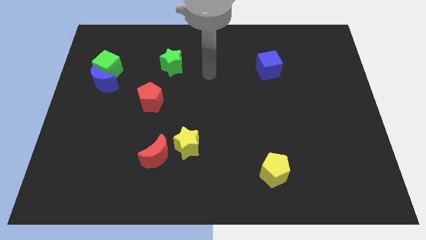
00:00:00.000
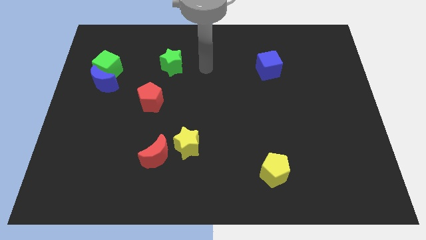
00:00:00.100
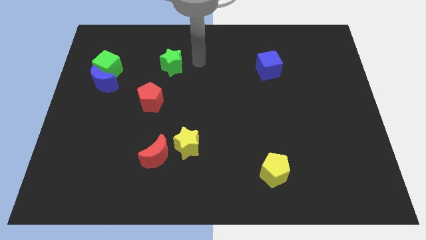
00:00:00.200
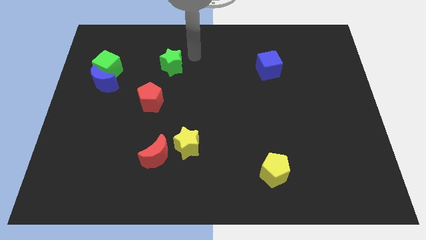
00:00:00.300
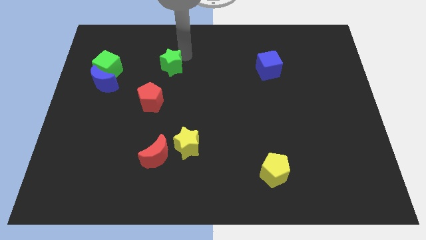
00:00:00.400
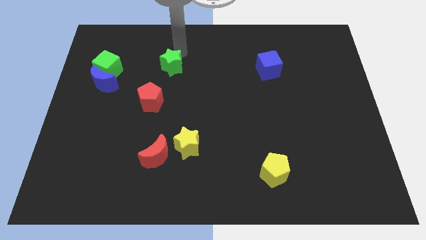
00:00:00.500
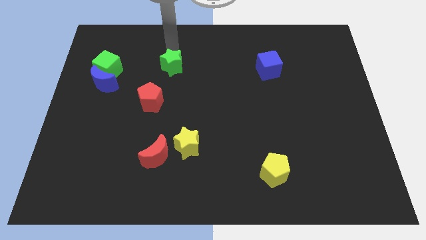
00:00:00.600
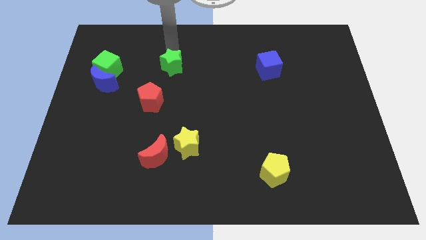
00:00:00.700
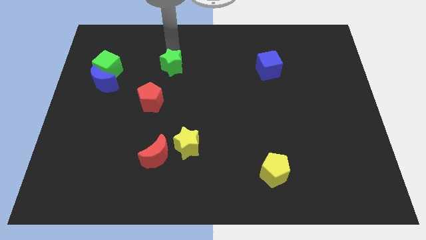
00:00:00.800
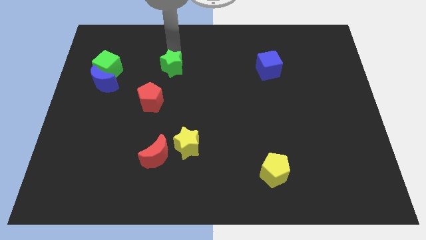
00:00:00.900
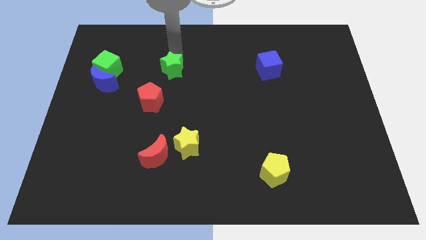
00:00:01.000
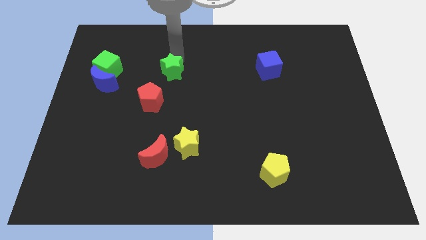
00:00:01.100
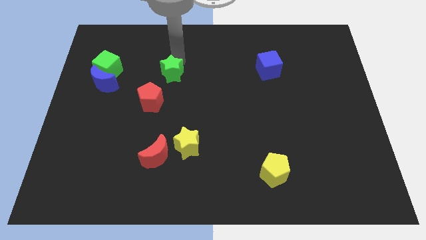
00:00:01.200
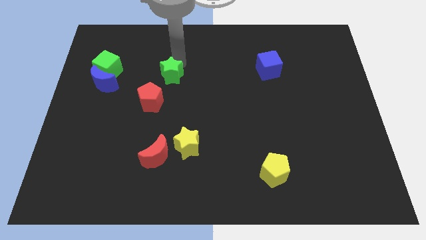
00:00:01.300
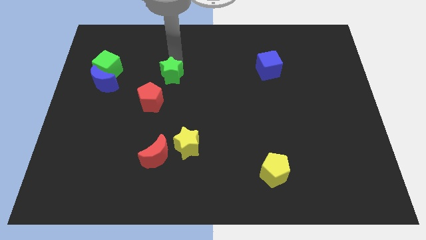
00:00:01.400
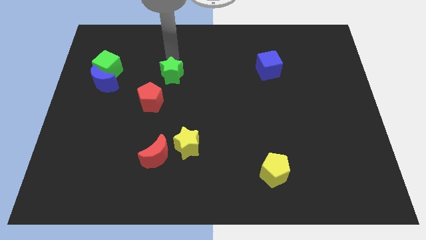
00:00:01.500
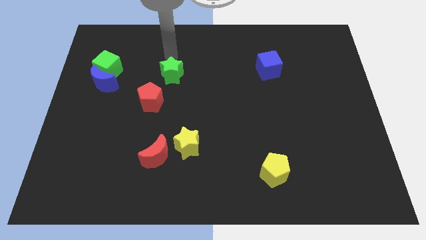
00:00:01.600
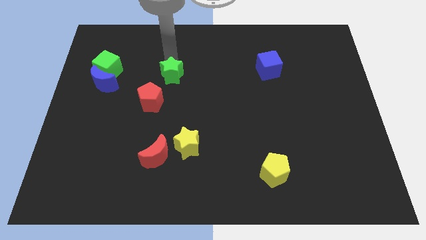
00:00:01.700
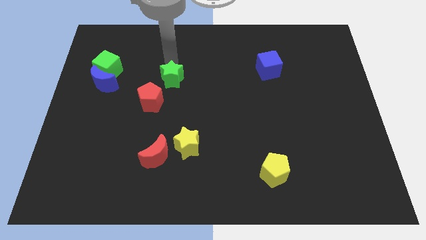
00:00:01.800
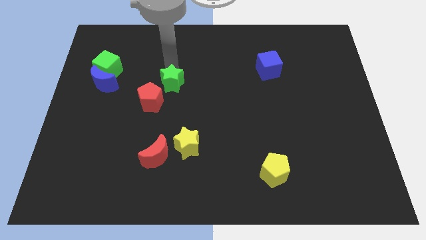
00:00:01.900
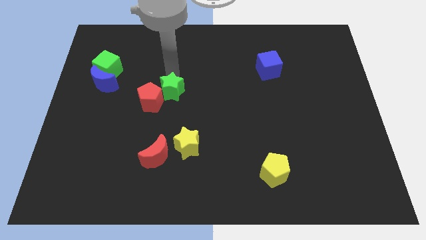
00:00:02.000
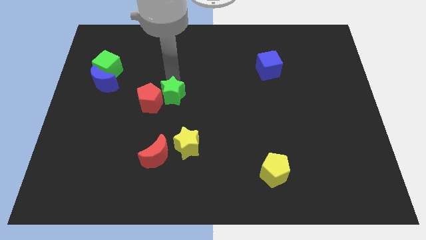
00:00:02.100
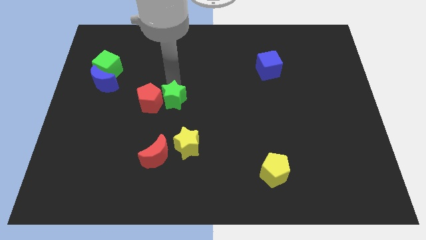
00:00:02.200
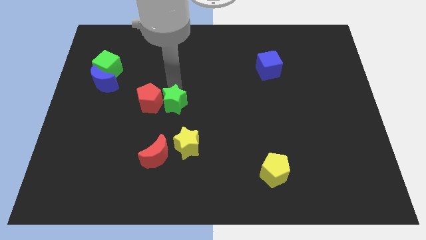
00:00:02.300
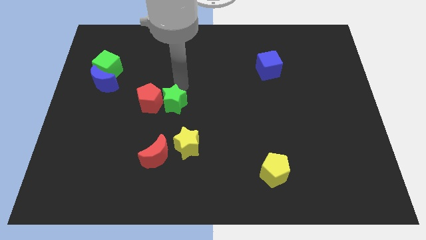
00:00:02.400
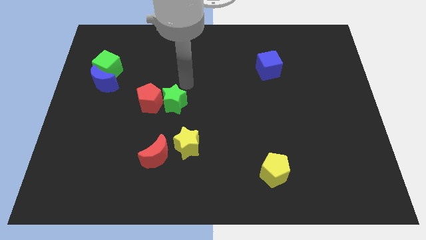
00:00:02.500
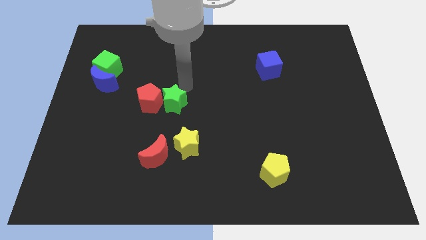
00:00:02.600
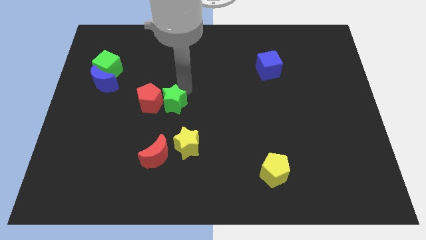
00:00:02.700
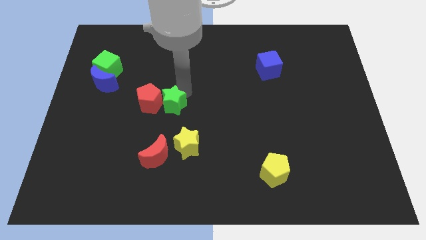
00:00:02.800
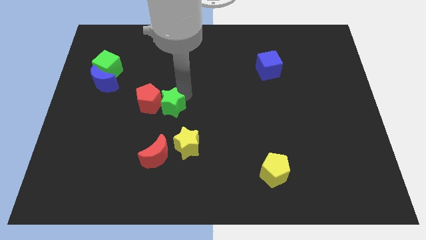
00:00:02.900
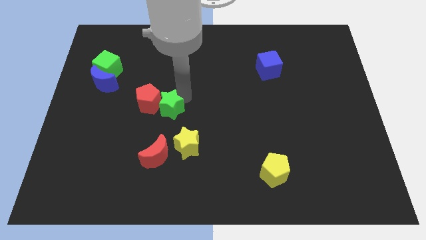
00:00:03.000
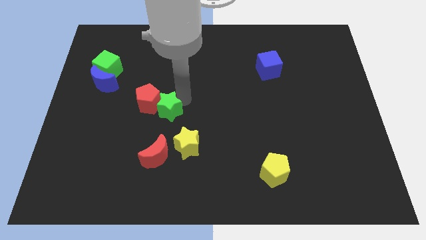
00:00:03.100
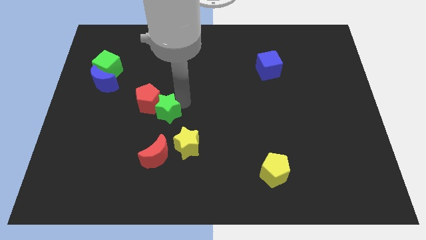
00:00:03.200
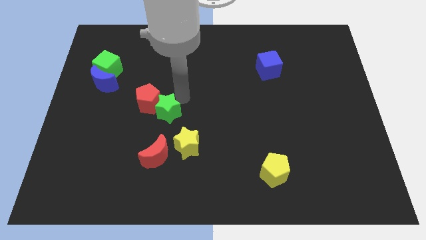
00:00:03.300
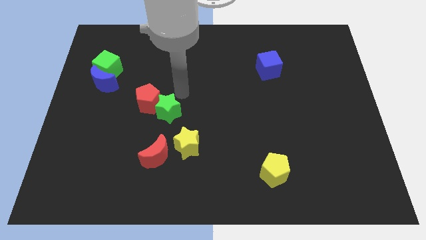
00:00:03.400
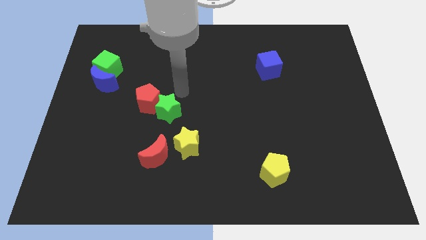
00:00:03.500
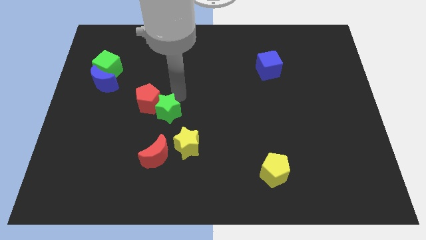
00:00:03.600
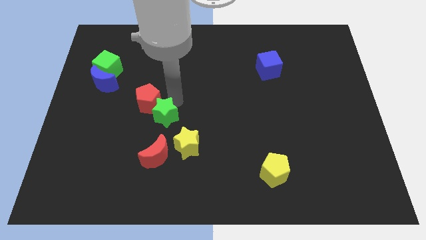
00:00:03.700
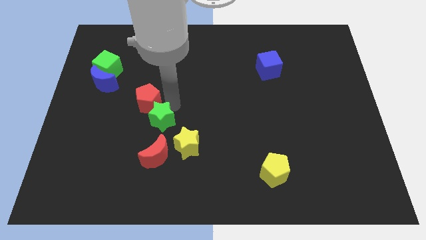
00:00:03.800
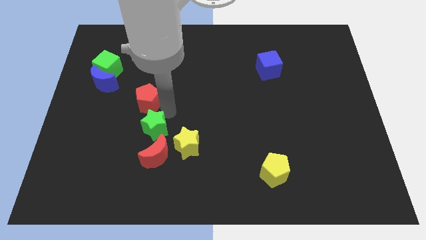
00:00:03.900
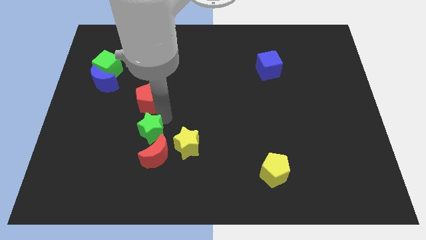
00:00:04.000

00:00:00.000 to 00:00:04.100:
move the green star down

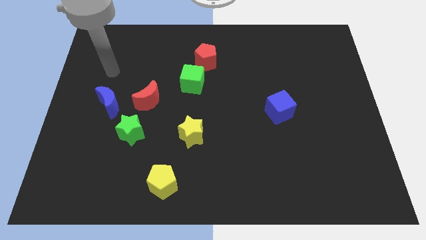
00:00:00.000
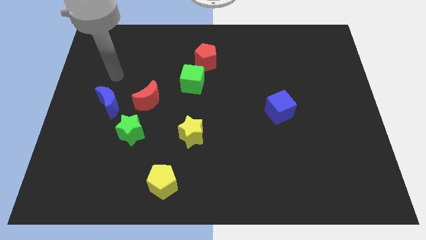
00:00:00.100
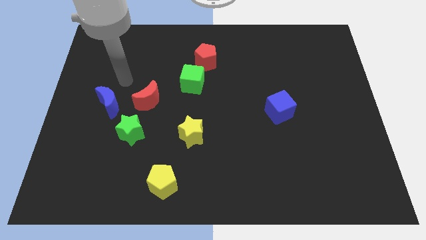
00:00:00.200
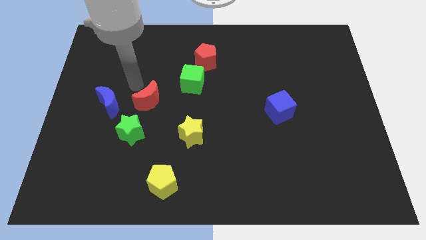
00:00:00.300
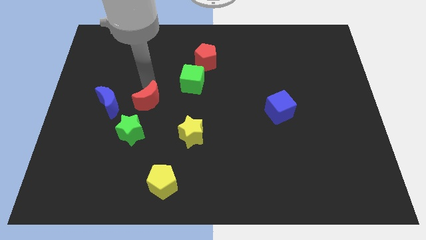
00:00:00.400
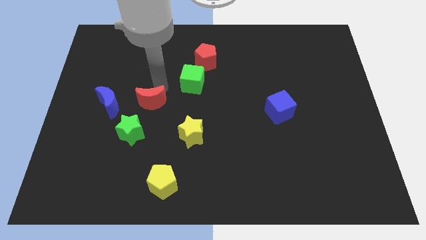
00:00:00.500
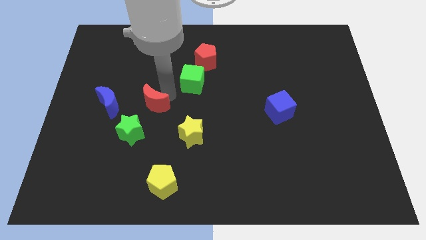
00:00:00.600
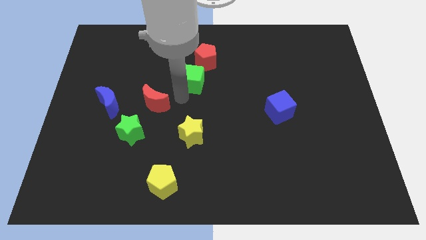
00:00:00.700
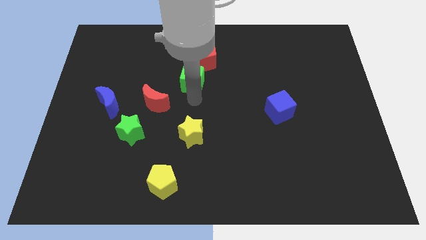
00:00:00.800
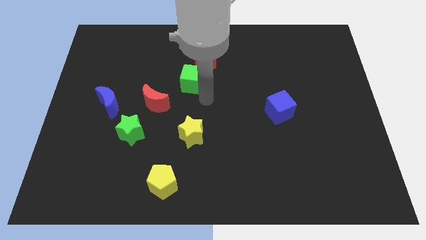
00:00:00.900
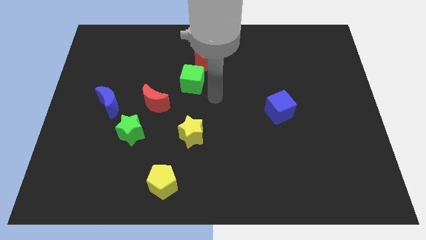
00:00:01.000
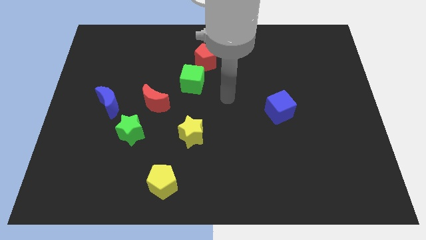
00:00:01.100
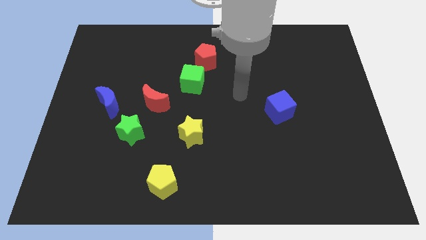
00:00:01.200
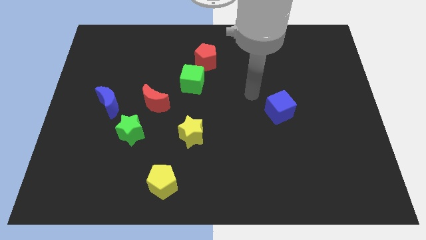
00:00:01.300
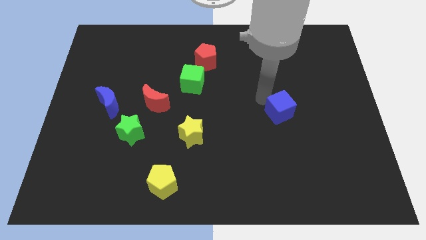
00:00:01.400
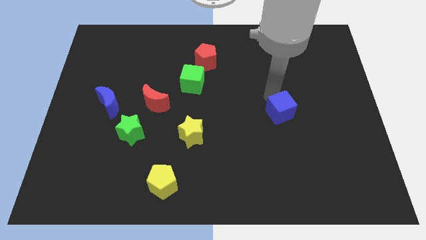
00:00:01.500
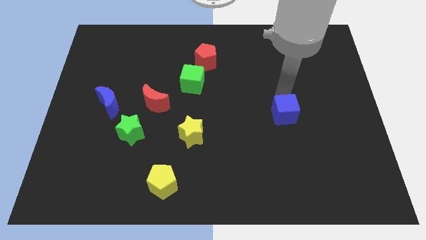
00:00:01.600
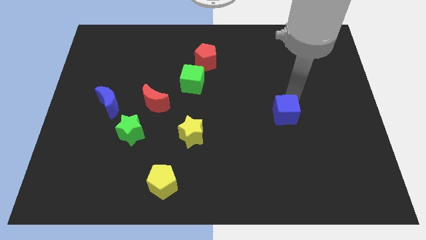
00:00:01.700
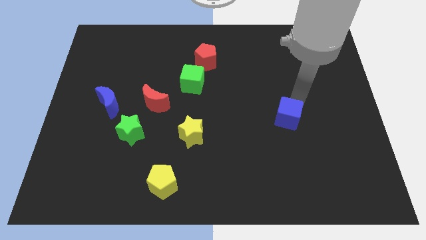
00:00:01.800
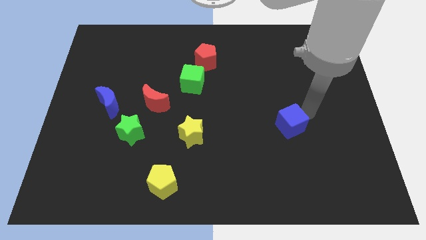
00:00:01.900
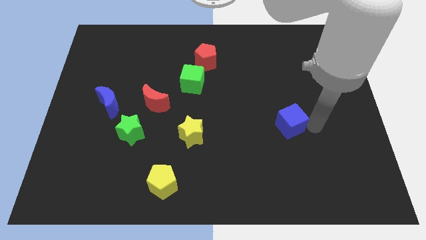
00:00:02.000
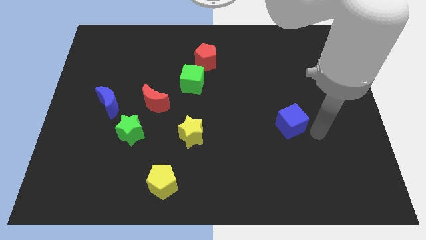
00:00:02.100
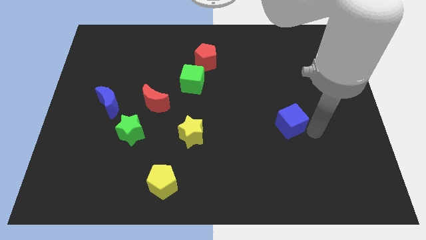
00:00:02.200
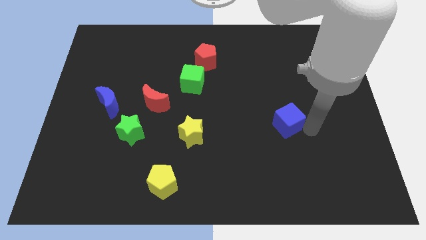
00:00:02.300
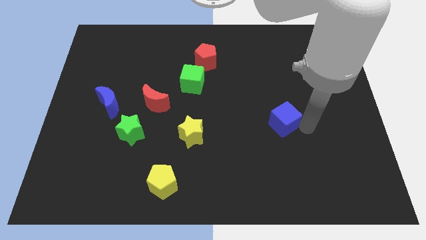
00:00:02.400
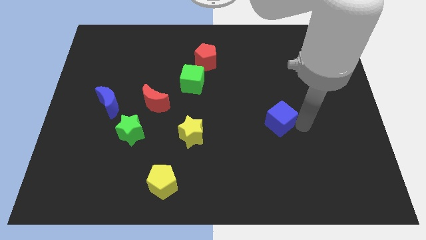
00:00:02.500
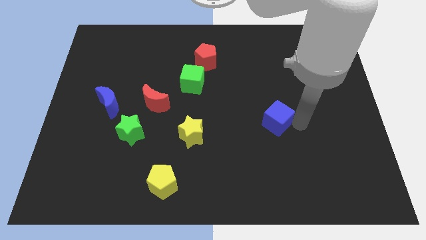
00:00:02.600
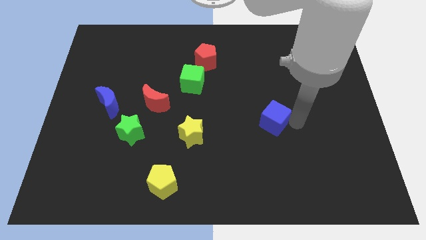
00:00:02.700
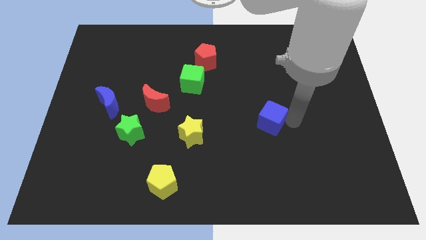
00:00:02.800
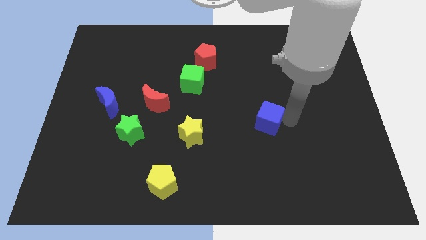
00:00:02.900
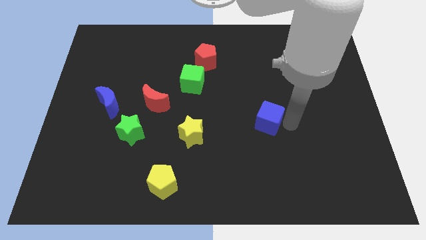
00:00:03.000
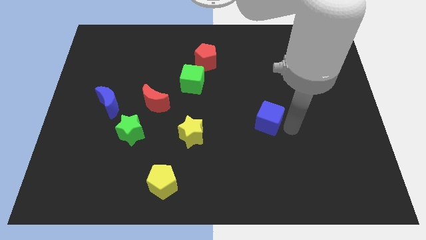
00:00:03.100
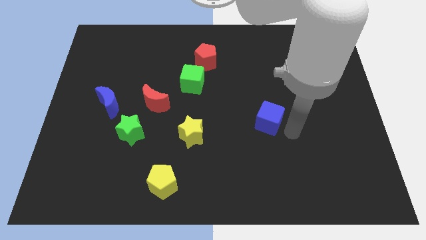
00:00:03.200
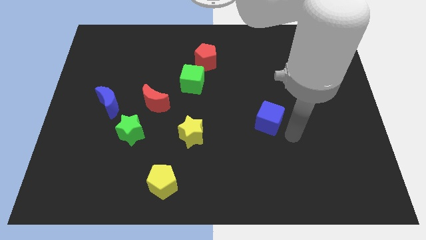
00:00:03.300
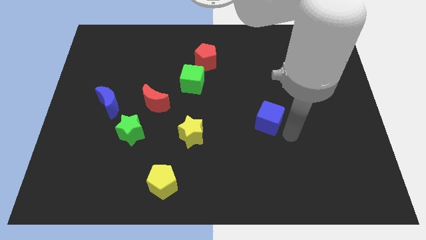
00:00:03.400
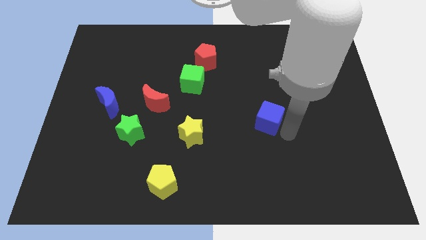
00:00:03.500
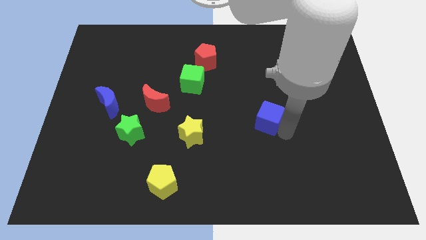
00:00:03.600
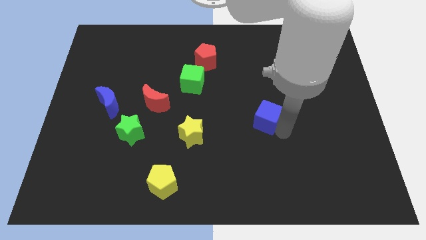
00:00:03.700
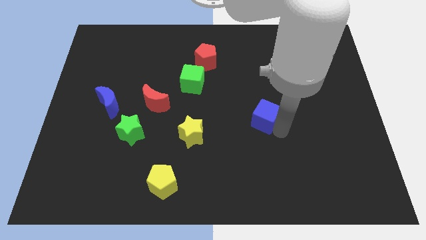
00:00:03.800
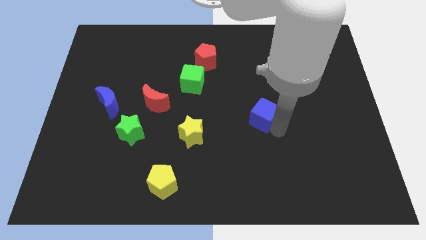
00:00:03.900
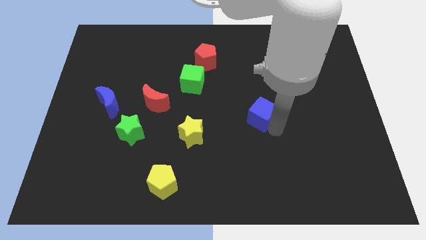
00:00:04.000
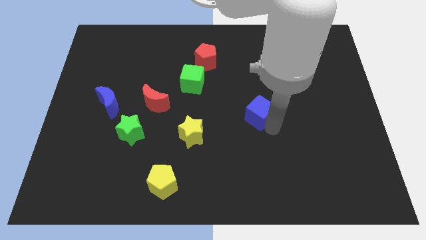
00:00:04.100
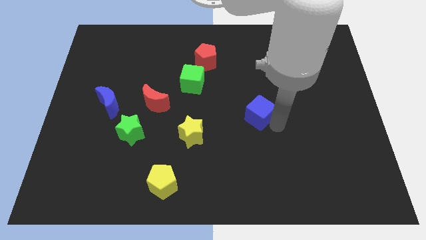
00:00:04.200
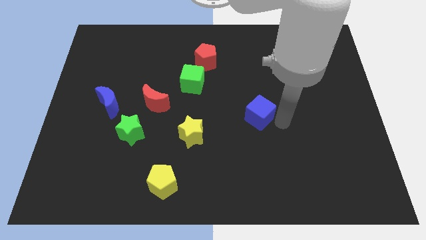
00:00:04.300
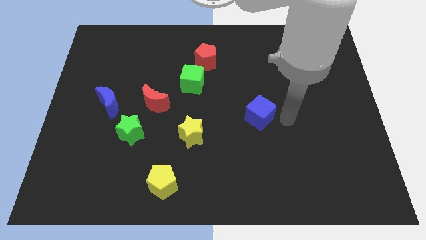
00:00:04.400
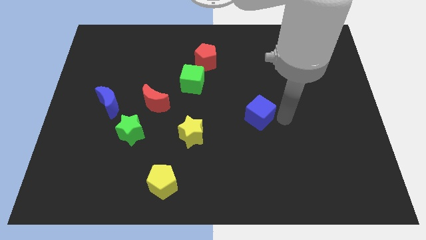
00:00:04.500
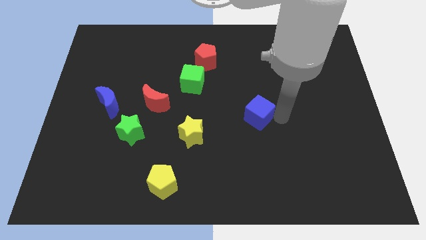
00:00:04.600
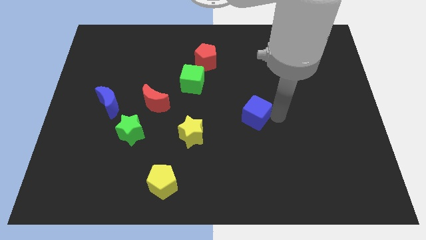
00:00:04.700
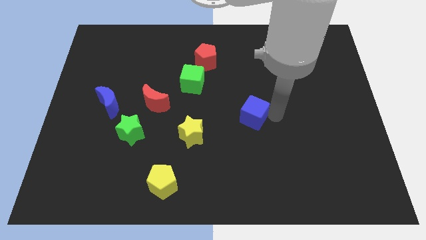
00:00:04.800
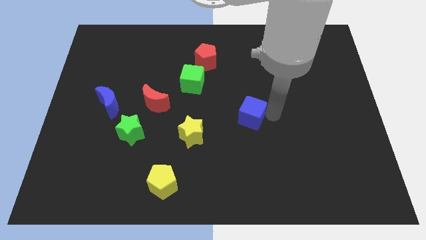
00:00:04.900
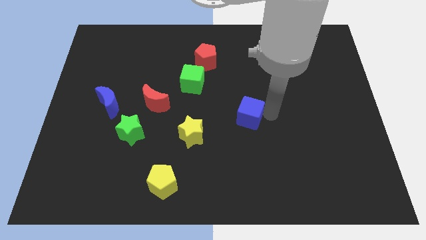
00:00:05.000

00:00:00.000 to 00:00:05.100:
move the blue cube left slightly
